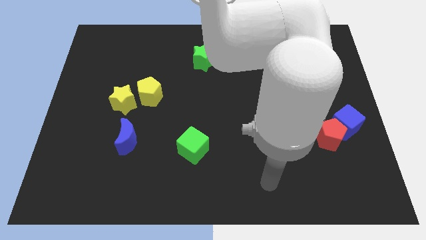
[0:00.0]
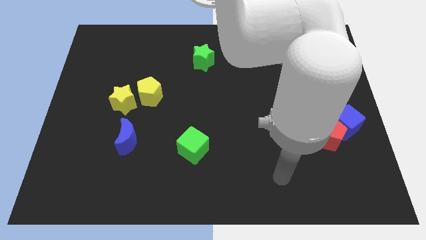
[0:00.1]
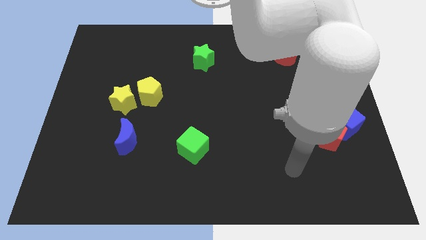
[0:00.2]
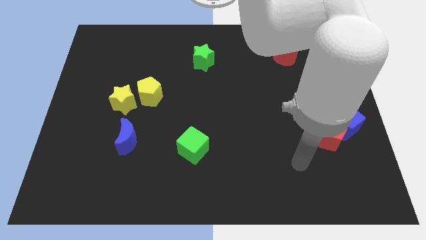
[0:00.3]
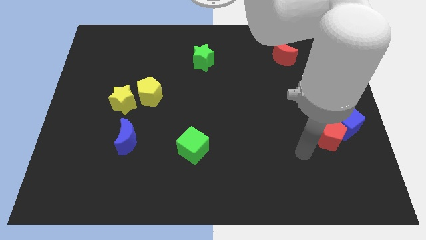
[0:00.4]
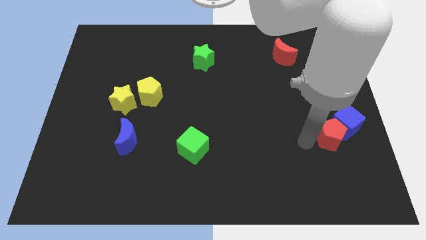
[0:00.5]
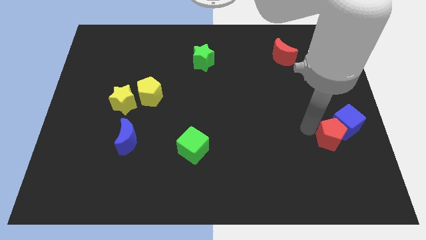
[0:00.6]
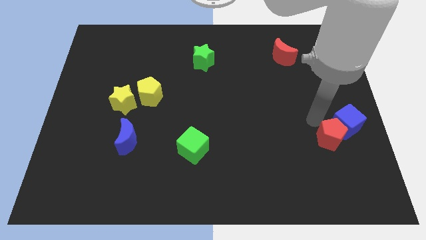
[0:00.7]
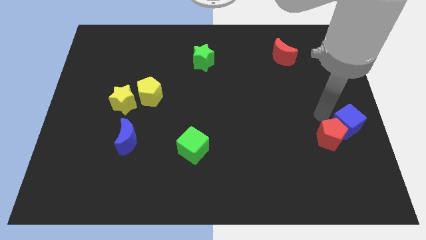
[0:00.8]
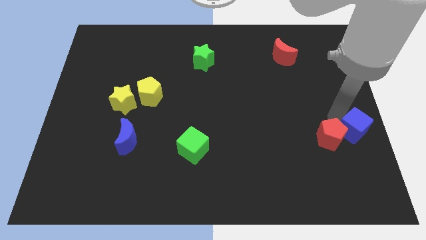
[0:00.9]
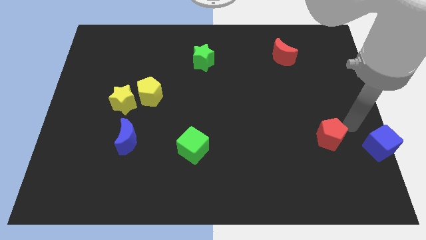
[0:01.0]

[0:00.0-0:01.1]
pull the red pentagon apart from the blue cube

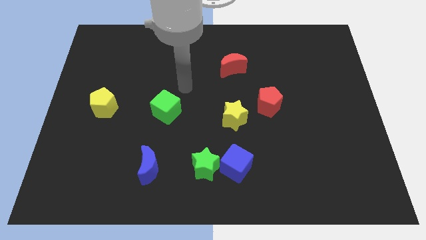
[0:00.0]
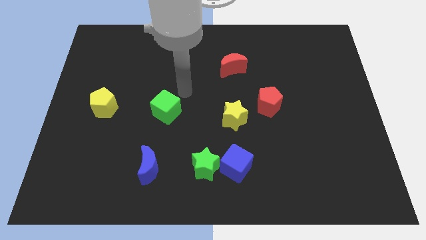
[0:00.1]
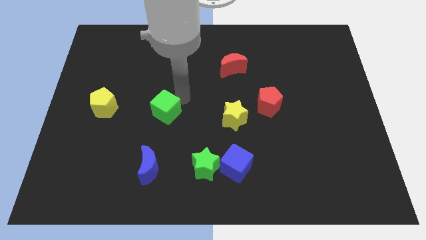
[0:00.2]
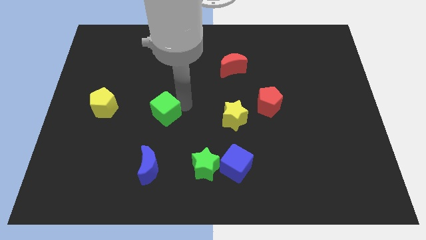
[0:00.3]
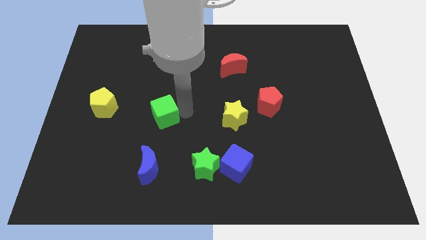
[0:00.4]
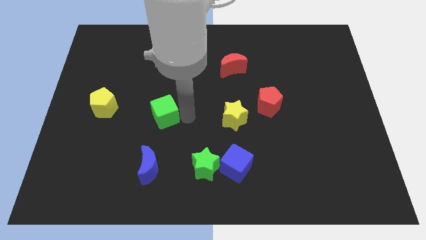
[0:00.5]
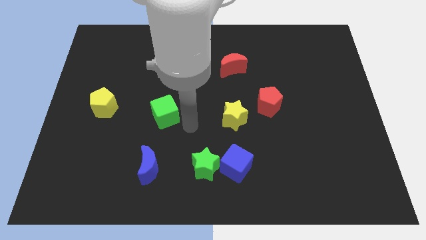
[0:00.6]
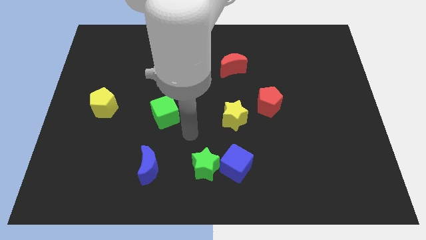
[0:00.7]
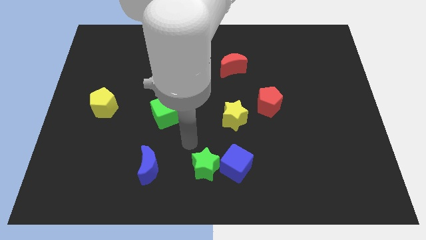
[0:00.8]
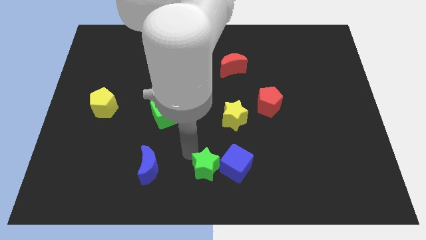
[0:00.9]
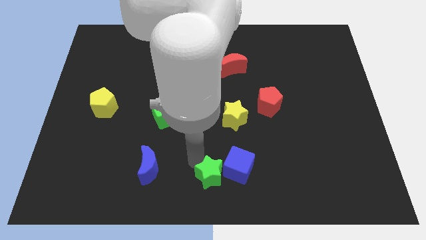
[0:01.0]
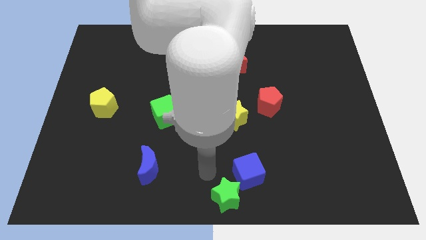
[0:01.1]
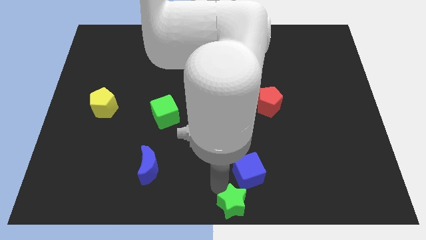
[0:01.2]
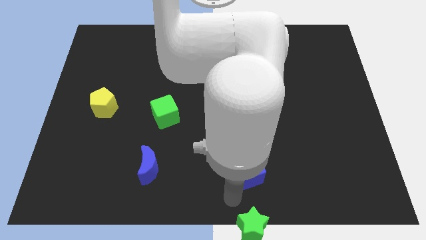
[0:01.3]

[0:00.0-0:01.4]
separate the blue cube from the green star

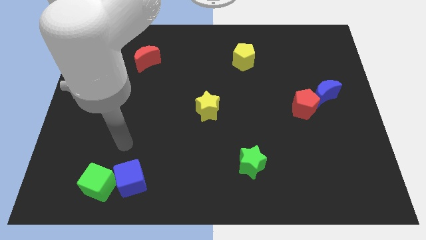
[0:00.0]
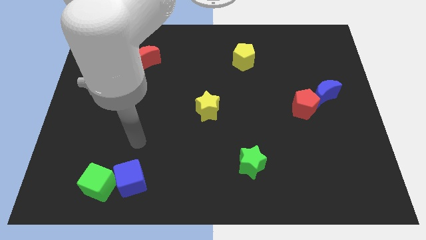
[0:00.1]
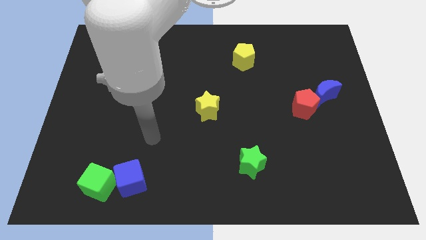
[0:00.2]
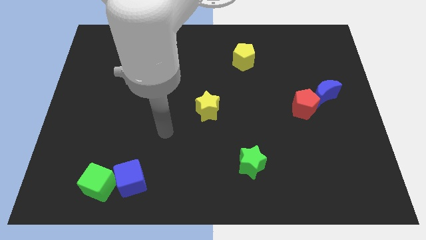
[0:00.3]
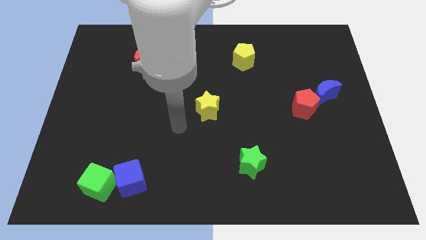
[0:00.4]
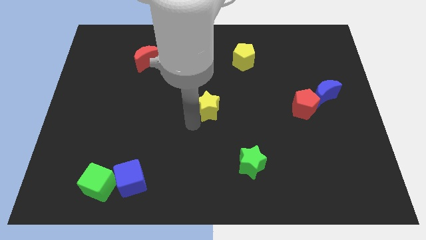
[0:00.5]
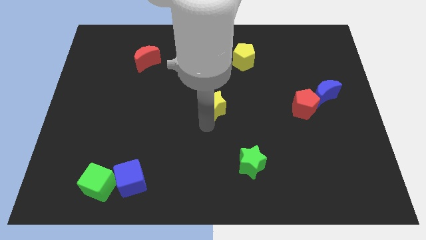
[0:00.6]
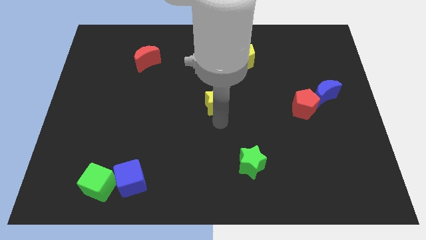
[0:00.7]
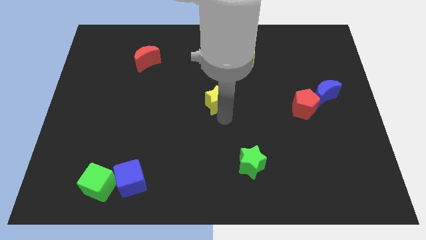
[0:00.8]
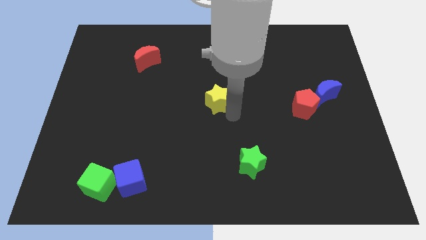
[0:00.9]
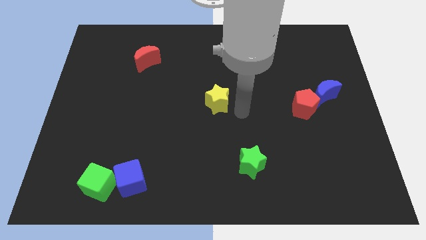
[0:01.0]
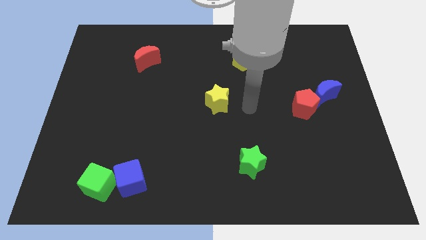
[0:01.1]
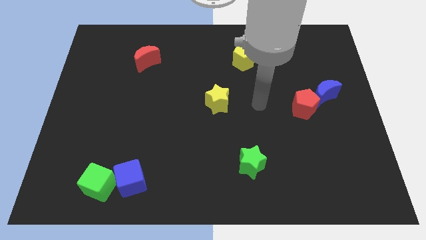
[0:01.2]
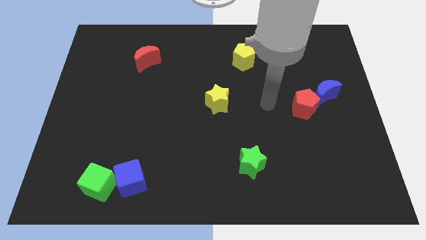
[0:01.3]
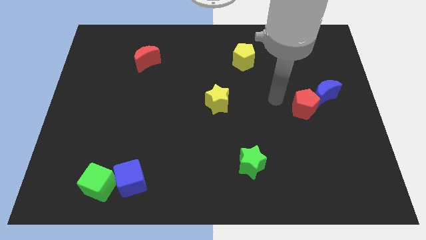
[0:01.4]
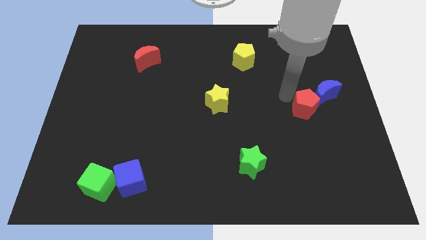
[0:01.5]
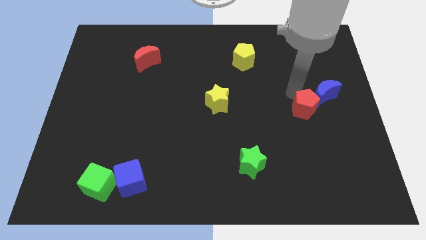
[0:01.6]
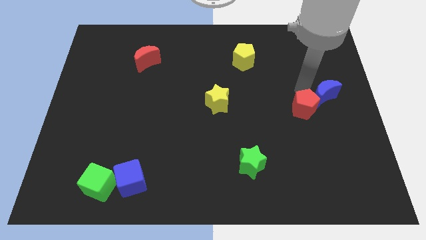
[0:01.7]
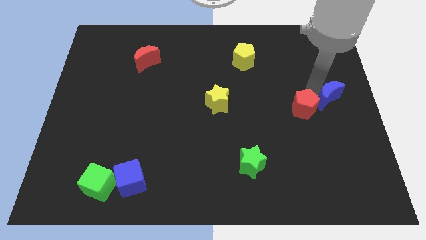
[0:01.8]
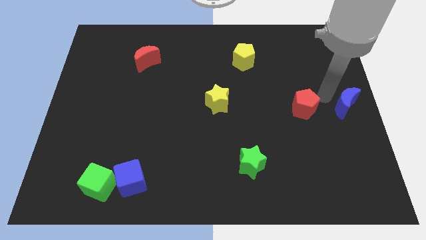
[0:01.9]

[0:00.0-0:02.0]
separate the red pentagon from the blue moon

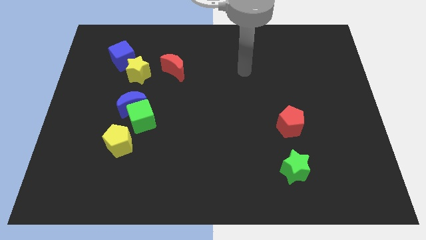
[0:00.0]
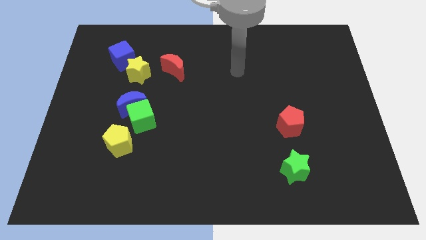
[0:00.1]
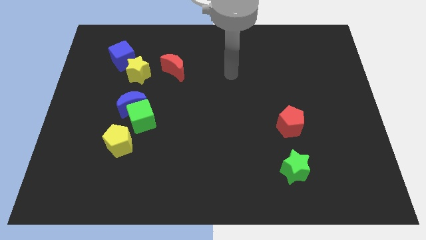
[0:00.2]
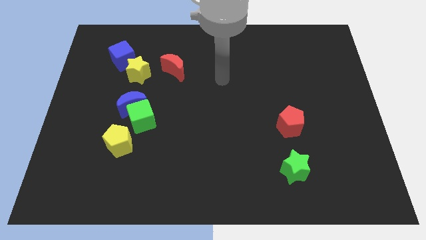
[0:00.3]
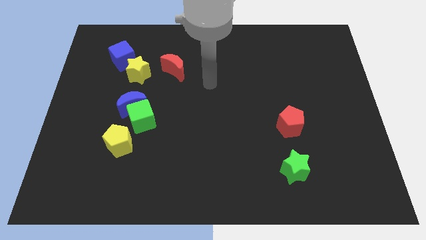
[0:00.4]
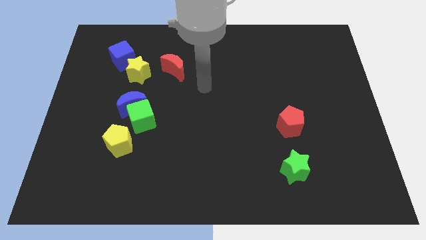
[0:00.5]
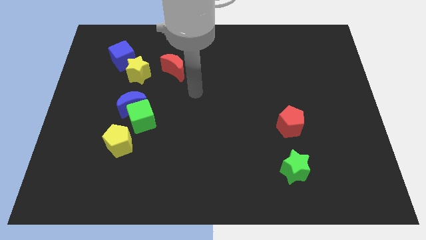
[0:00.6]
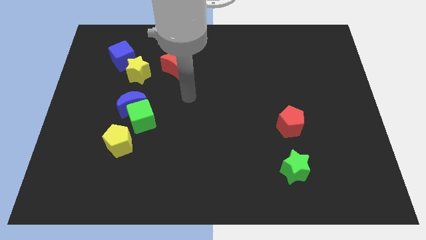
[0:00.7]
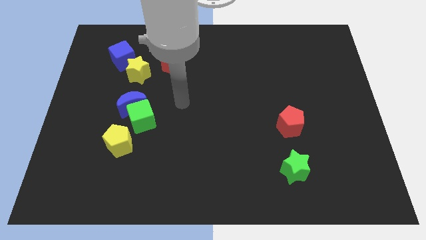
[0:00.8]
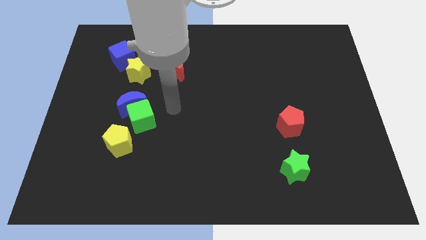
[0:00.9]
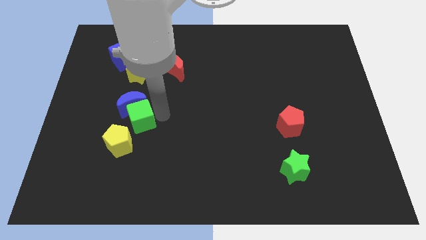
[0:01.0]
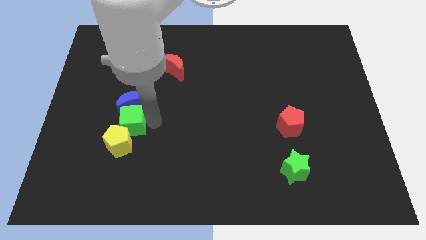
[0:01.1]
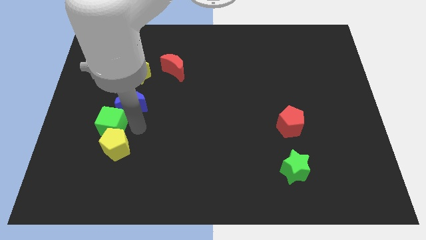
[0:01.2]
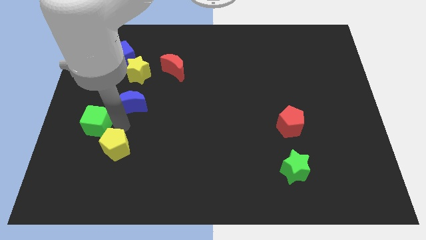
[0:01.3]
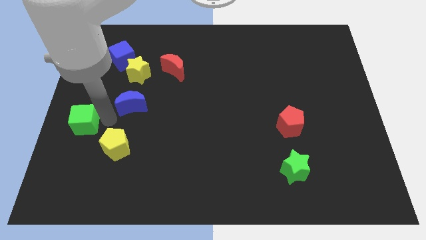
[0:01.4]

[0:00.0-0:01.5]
move the blue moon away from the green cube

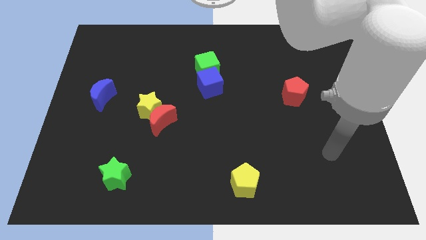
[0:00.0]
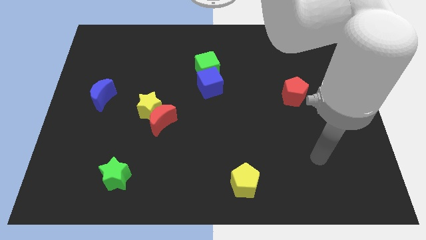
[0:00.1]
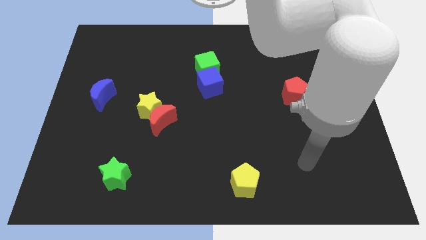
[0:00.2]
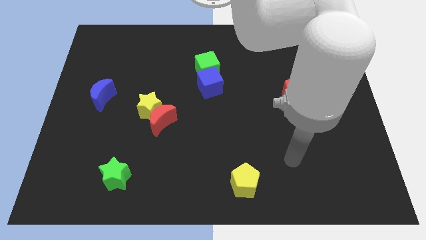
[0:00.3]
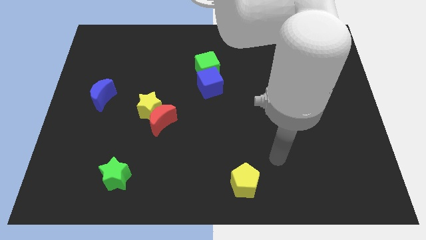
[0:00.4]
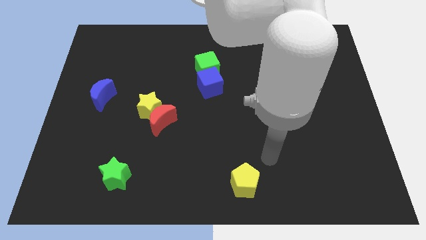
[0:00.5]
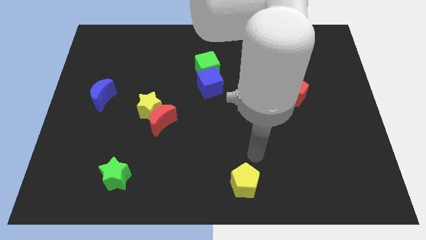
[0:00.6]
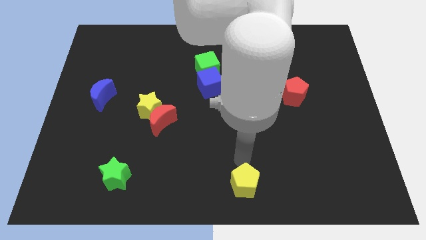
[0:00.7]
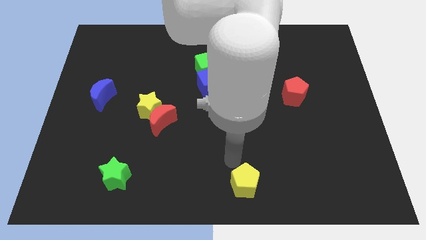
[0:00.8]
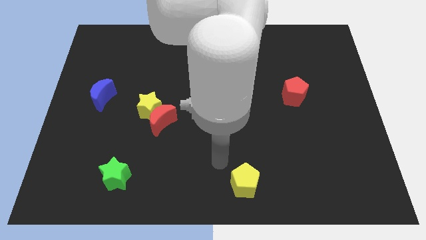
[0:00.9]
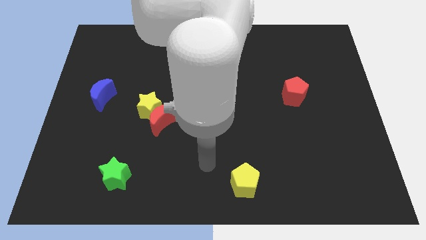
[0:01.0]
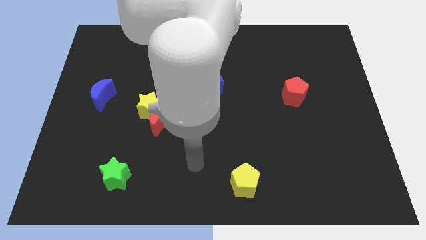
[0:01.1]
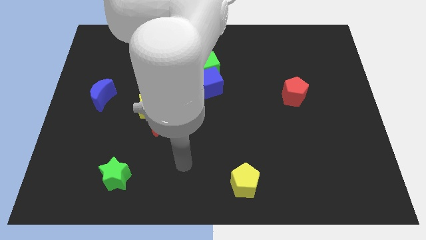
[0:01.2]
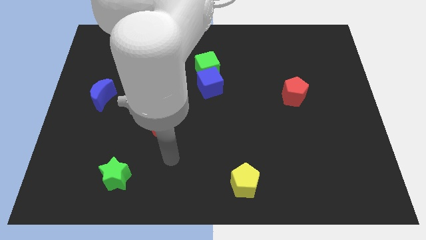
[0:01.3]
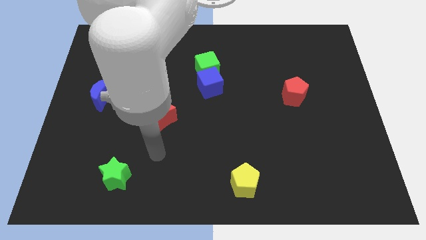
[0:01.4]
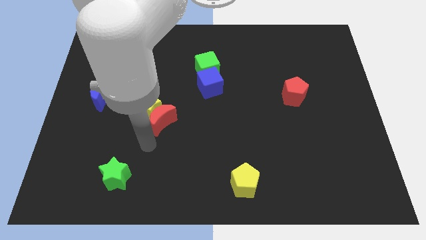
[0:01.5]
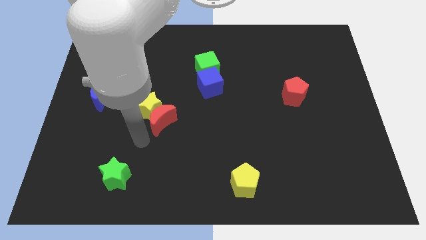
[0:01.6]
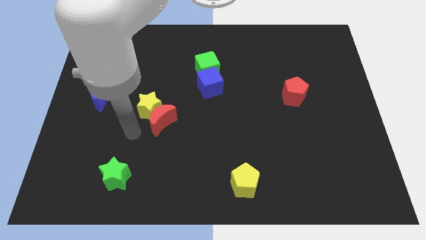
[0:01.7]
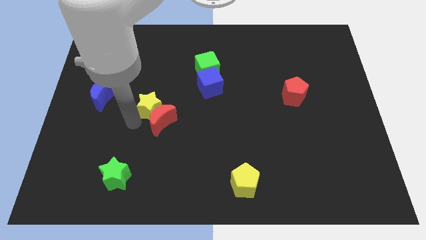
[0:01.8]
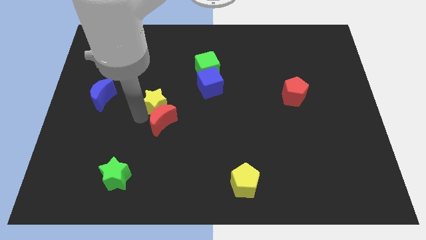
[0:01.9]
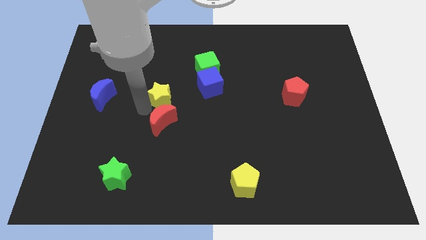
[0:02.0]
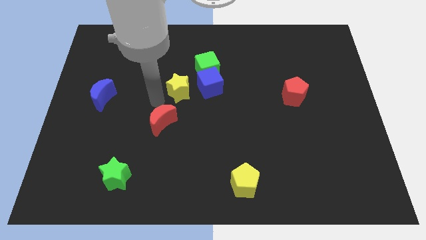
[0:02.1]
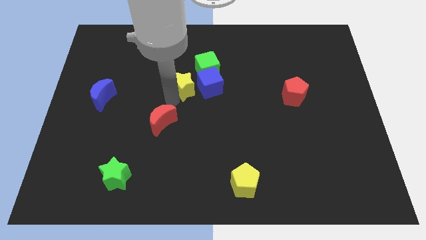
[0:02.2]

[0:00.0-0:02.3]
separate the red moon from the yellow star

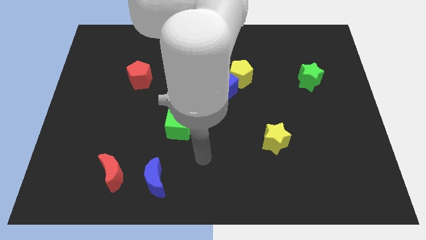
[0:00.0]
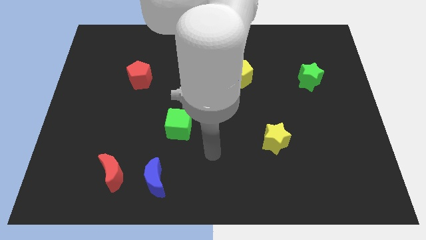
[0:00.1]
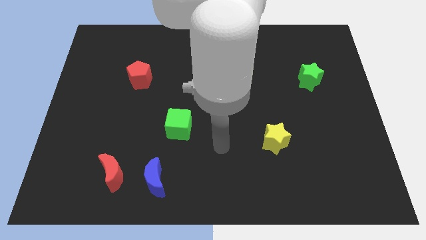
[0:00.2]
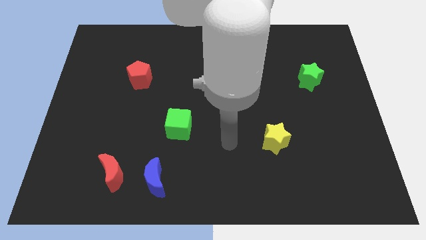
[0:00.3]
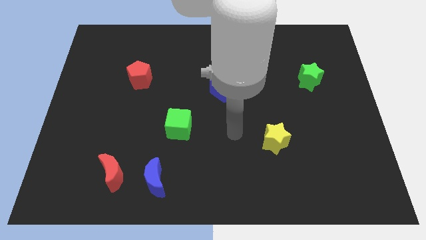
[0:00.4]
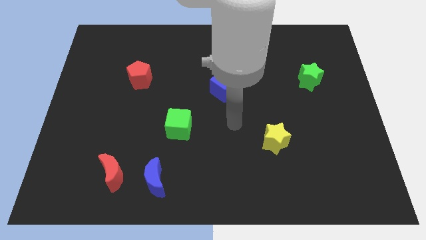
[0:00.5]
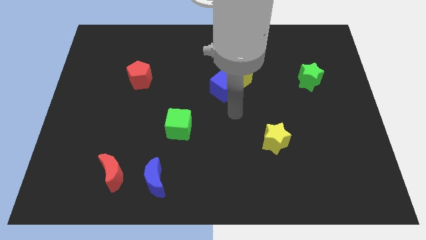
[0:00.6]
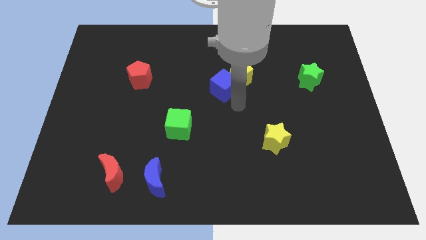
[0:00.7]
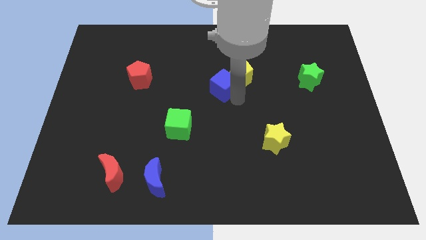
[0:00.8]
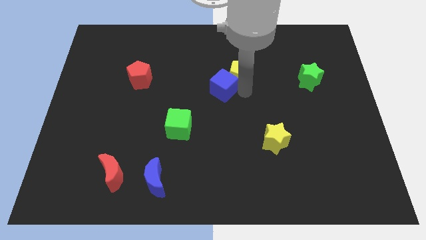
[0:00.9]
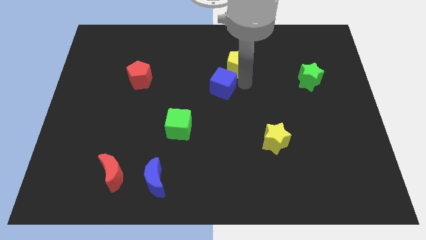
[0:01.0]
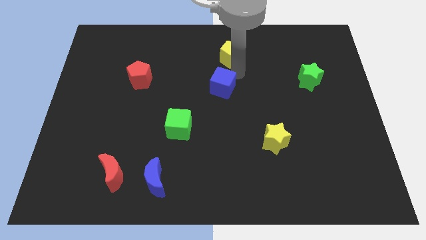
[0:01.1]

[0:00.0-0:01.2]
separate the blue cube from the yellow pentagon
